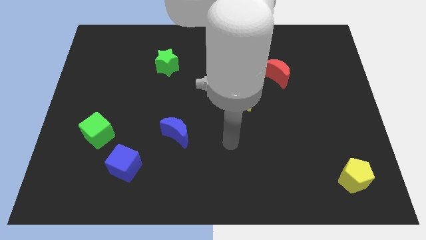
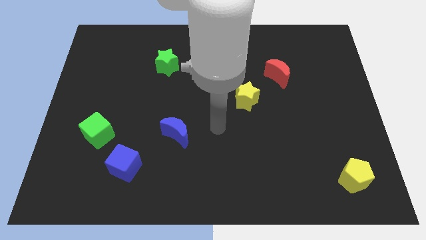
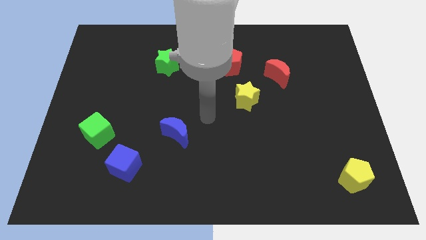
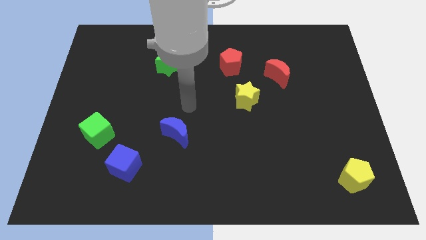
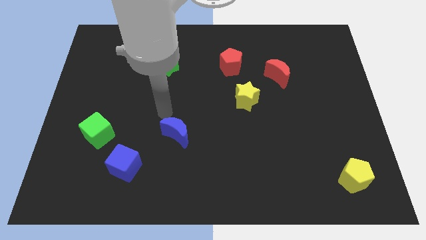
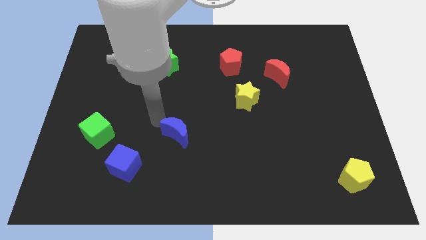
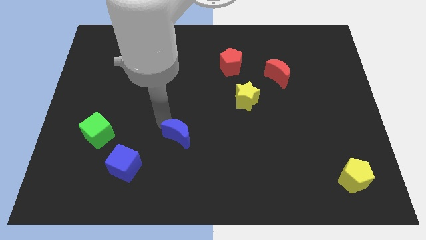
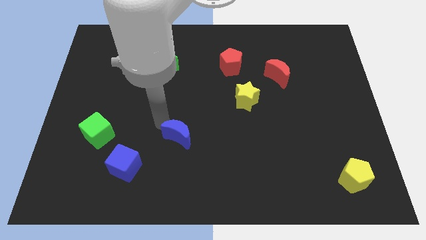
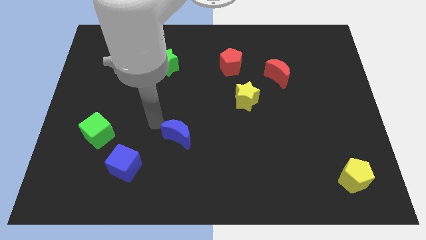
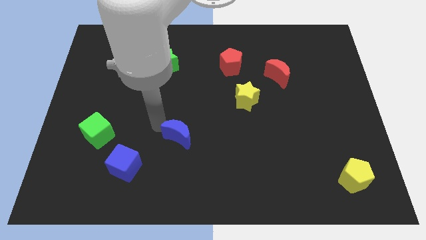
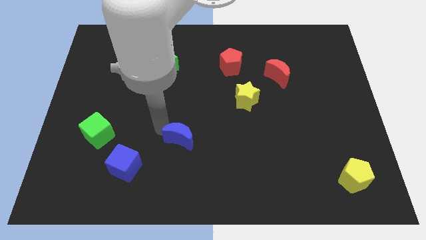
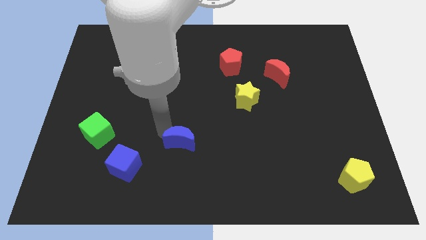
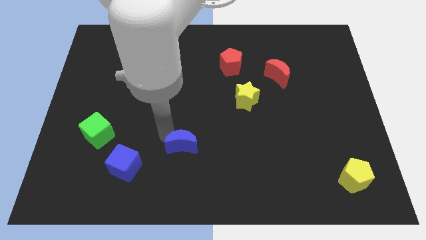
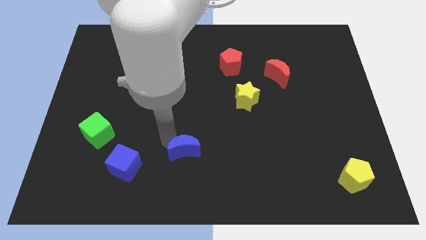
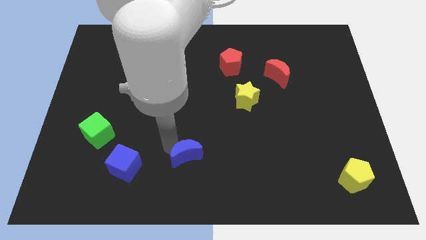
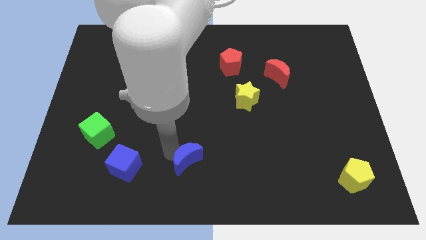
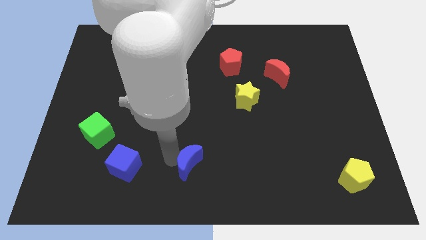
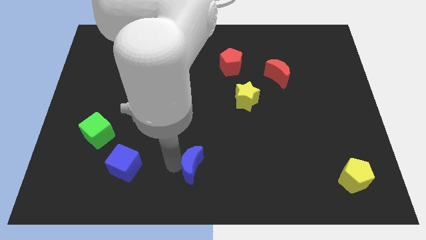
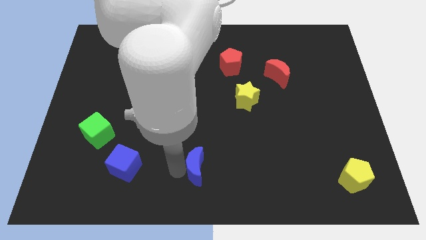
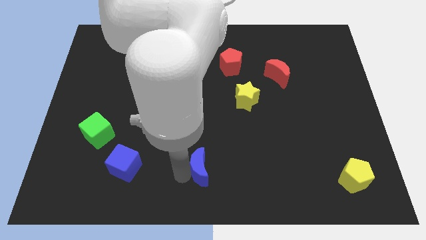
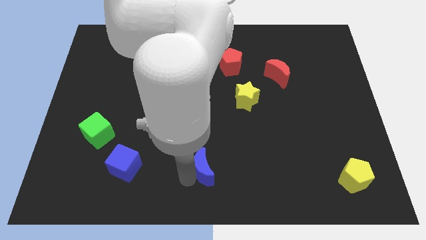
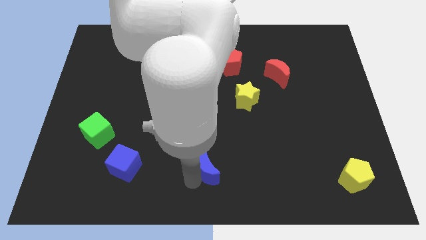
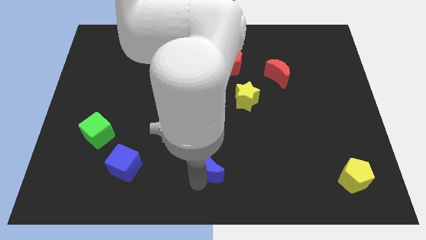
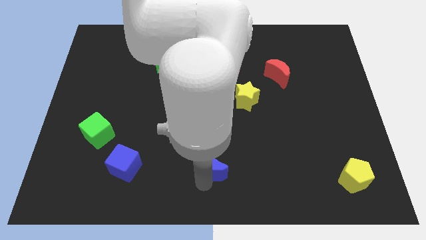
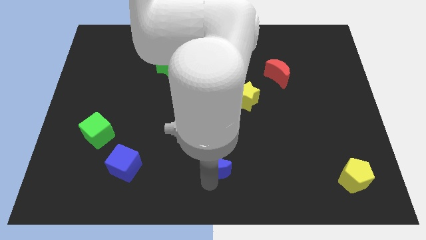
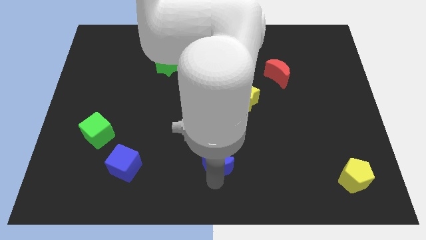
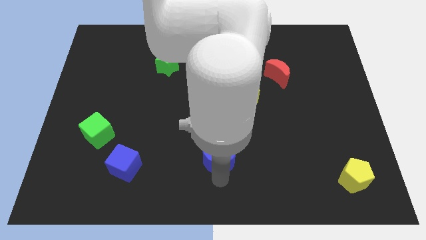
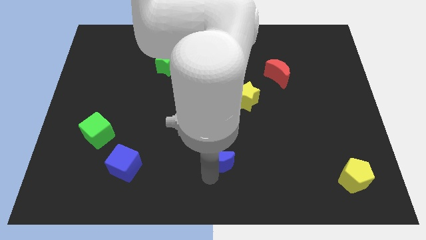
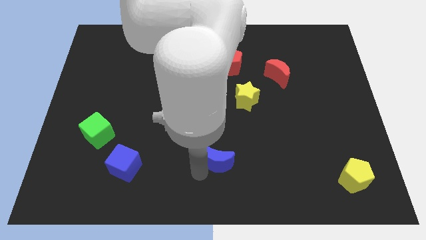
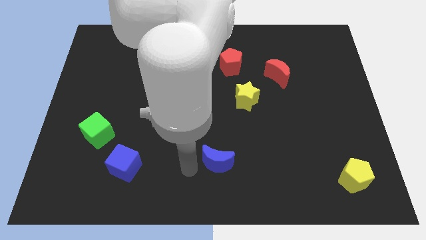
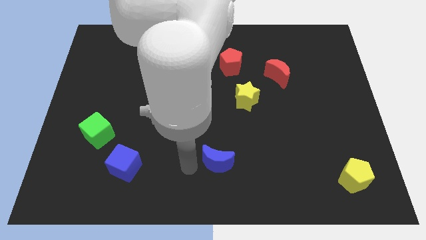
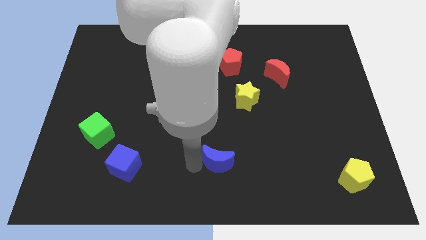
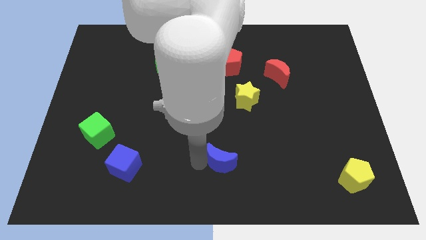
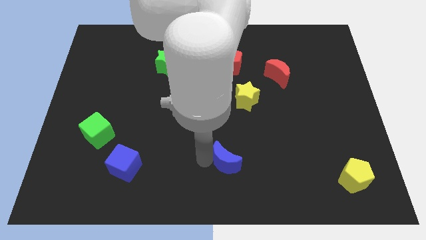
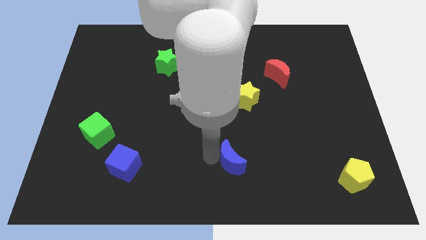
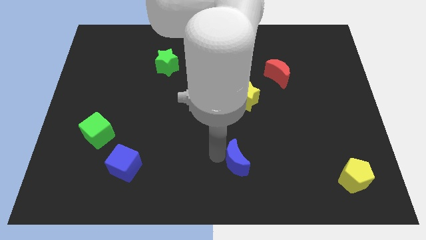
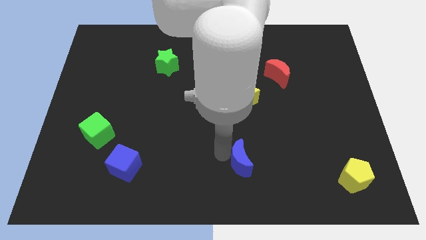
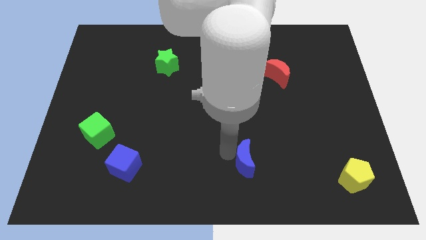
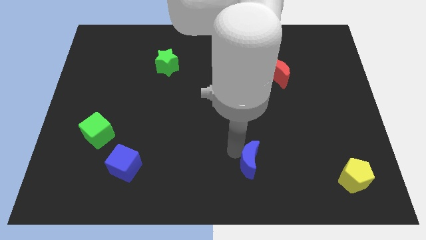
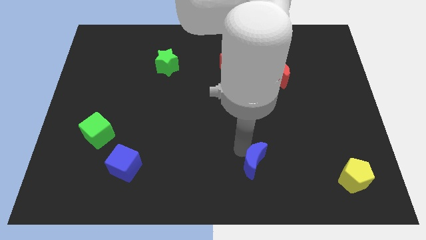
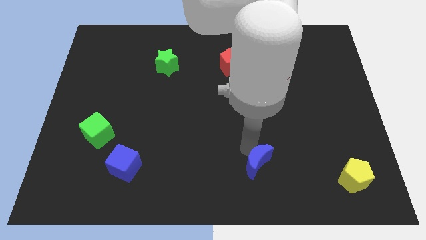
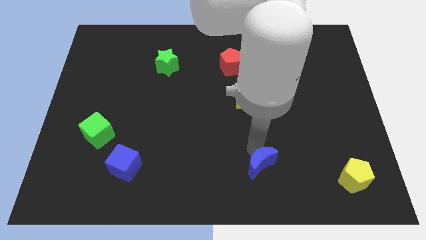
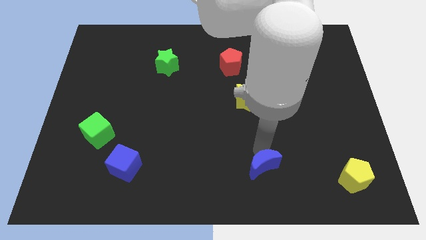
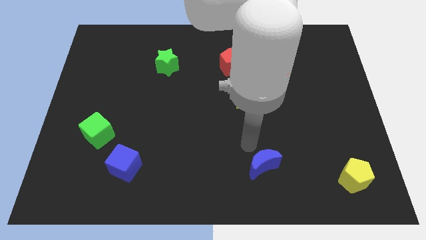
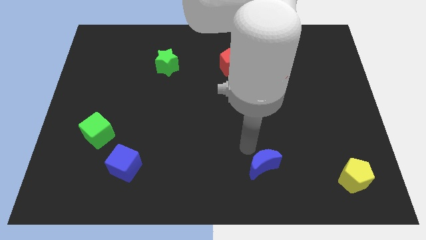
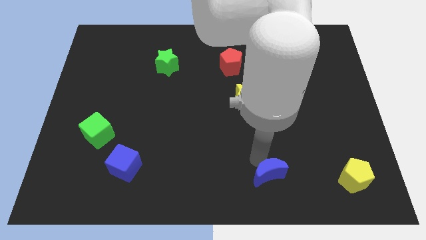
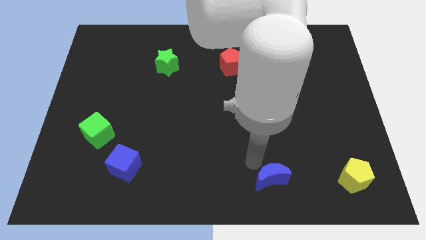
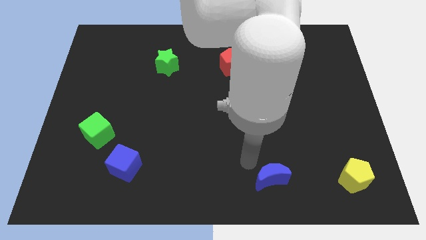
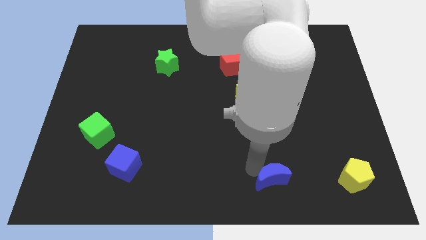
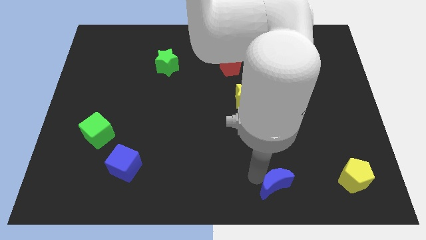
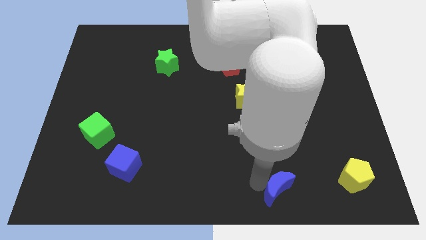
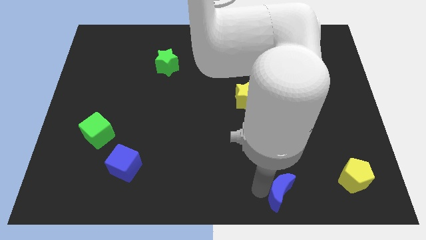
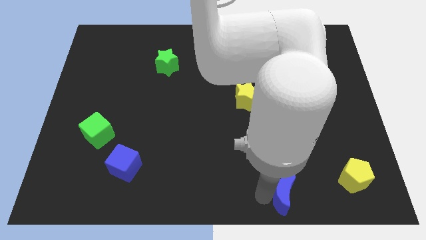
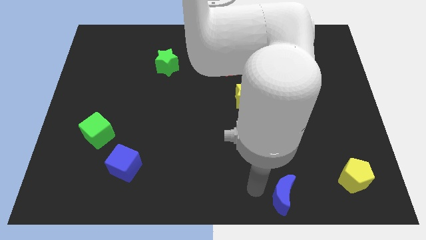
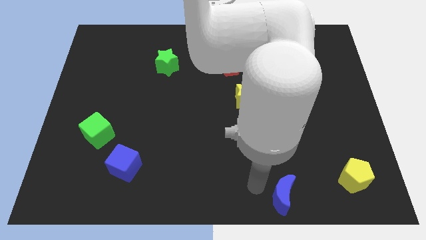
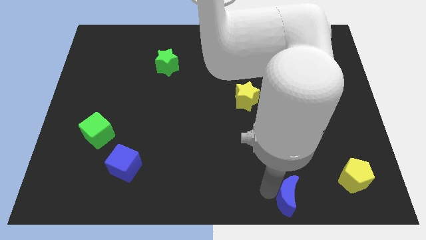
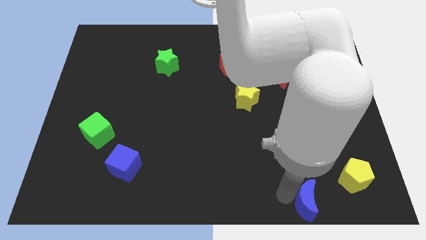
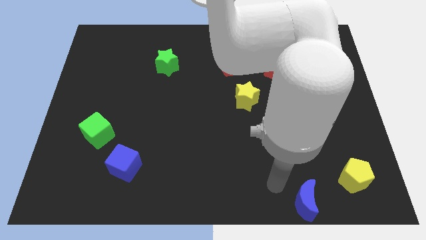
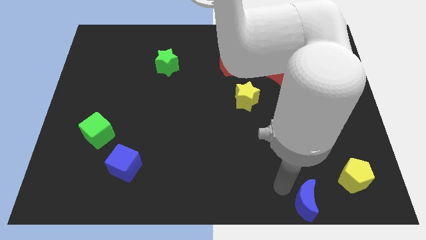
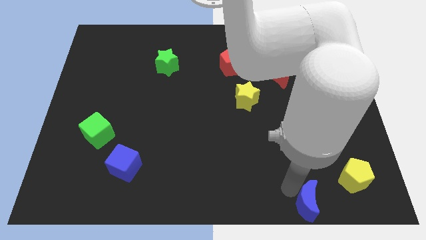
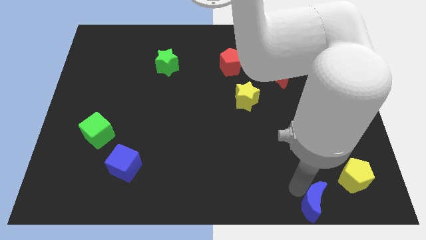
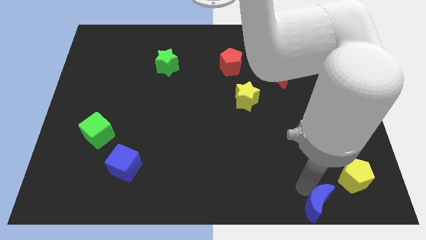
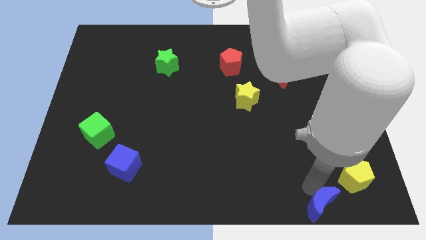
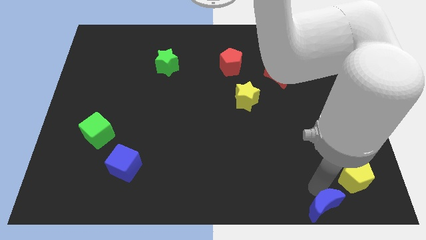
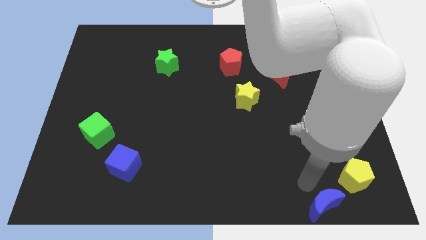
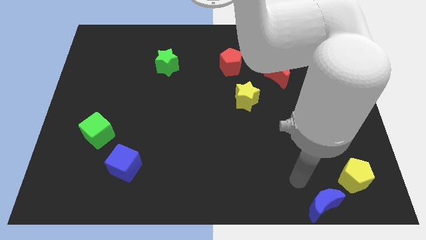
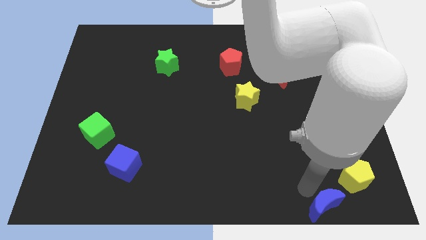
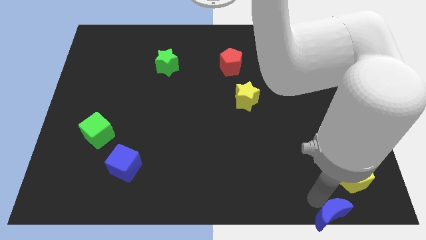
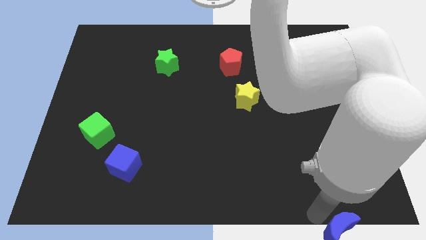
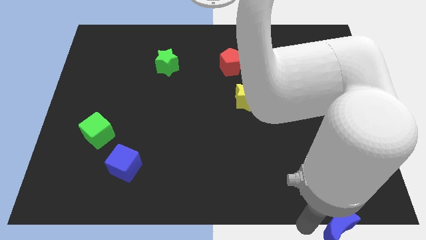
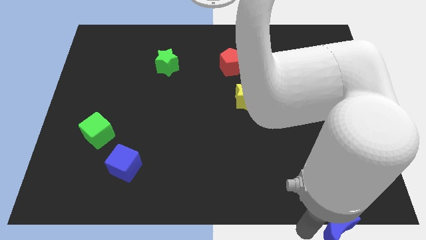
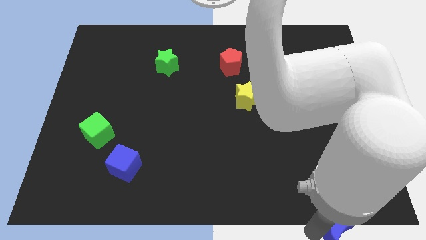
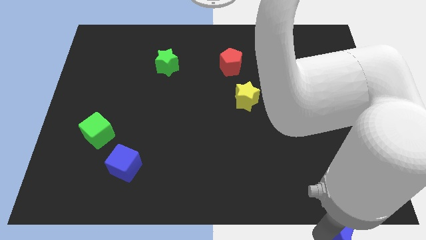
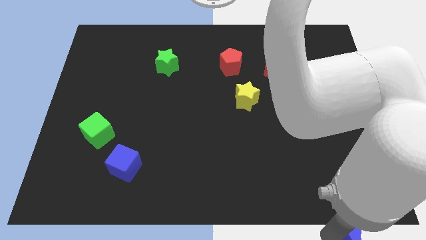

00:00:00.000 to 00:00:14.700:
put the blue moon to the bottom right corner
